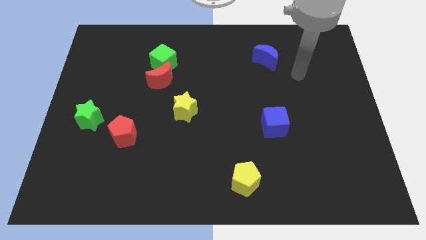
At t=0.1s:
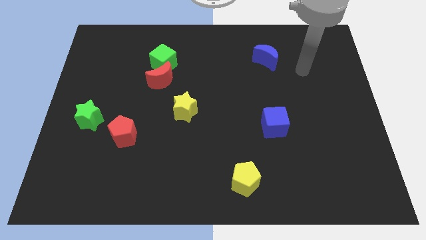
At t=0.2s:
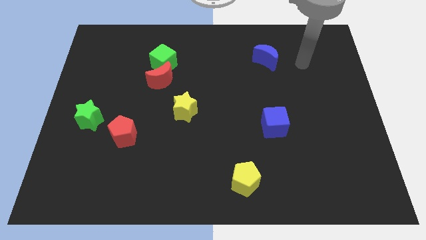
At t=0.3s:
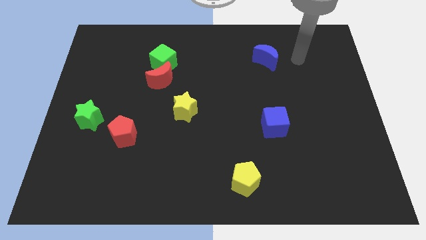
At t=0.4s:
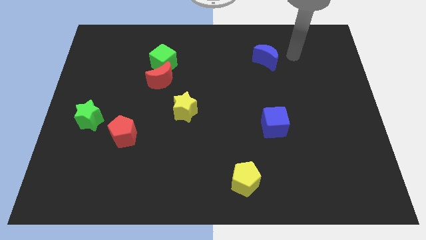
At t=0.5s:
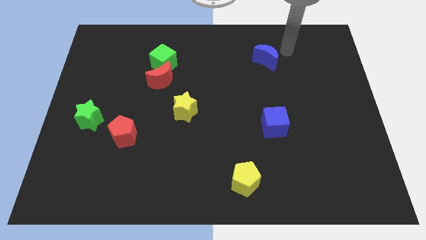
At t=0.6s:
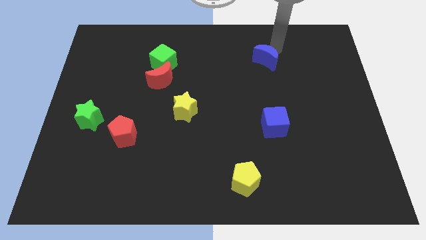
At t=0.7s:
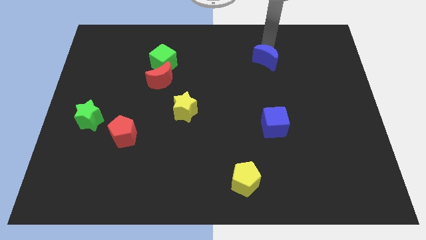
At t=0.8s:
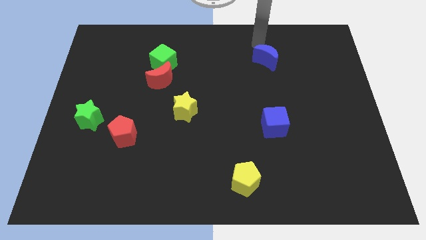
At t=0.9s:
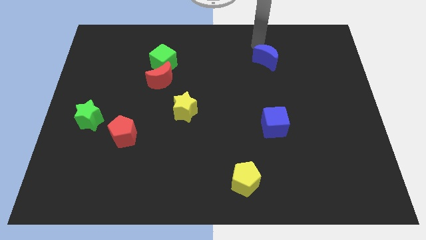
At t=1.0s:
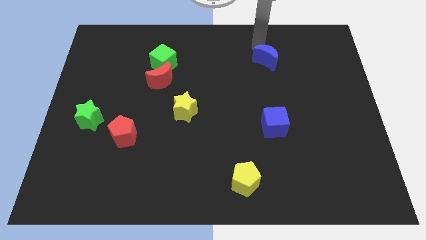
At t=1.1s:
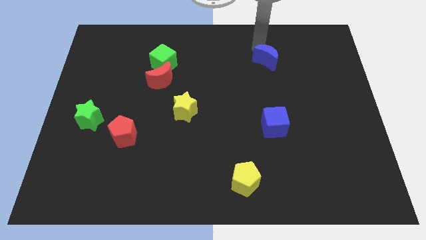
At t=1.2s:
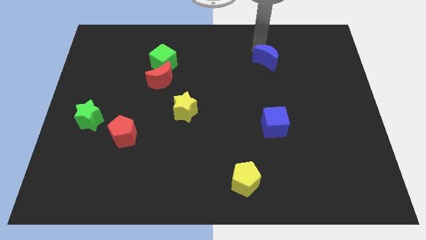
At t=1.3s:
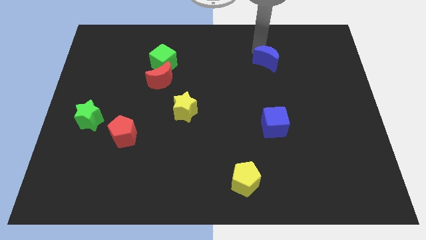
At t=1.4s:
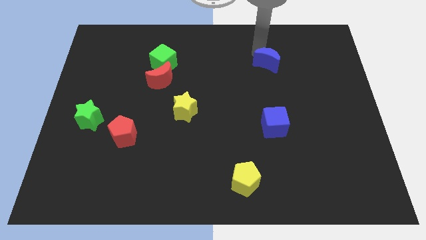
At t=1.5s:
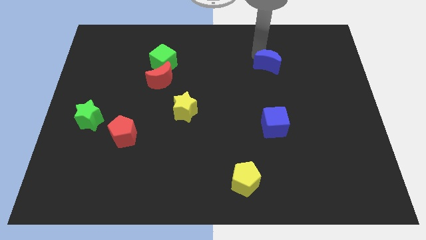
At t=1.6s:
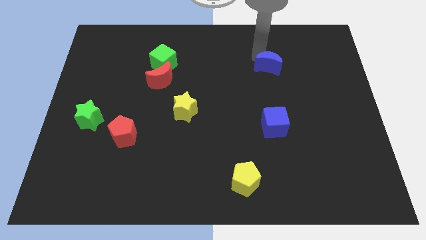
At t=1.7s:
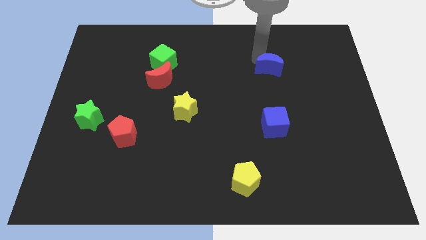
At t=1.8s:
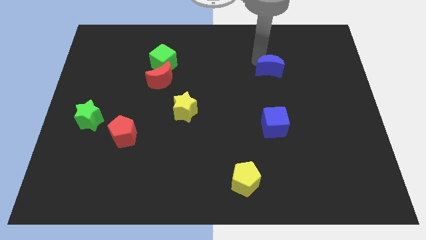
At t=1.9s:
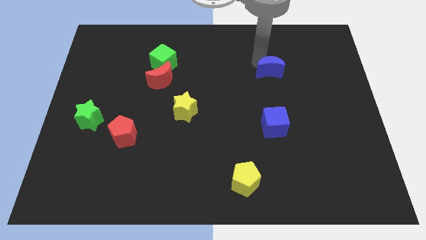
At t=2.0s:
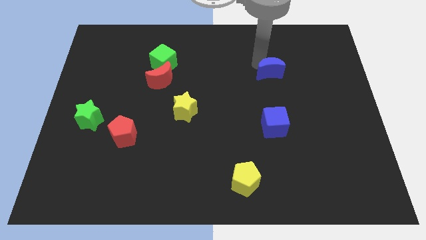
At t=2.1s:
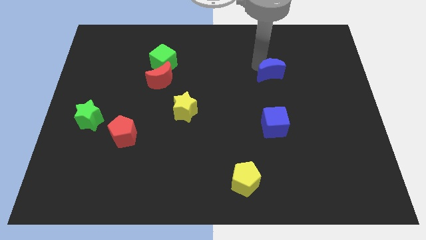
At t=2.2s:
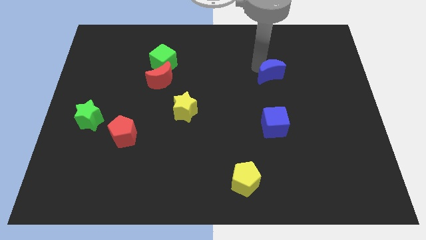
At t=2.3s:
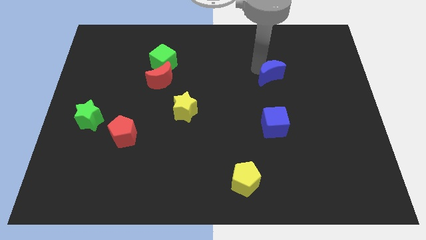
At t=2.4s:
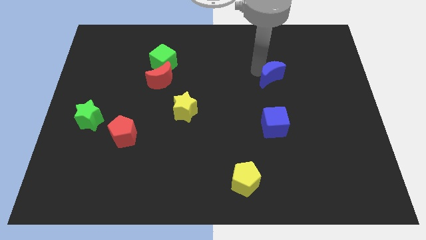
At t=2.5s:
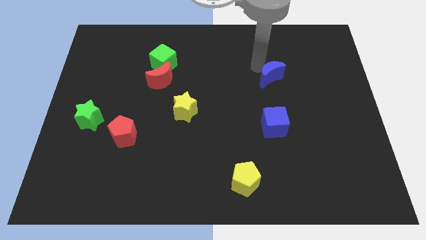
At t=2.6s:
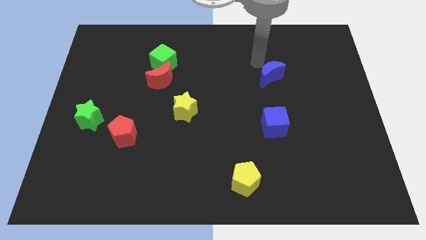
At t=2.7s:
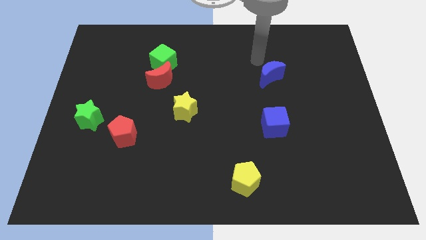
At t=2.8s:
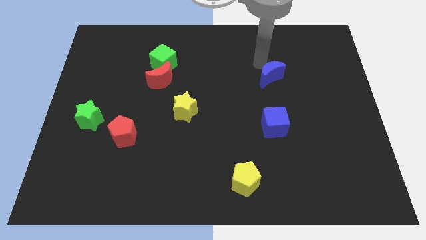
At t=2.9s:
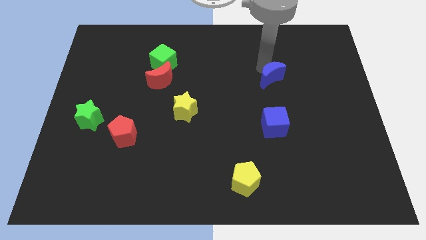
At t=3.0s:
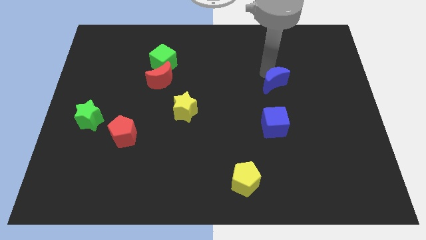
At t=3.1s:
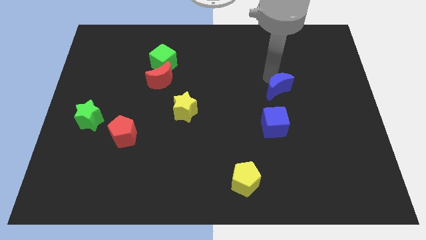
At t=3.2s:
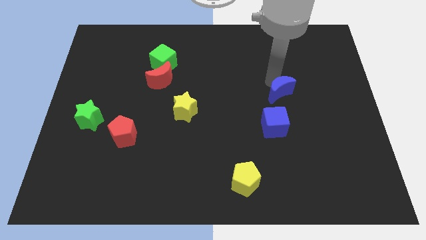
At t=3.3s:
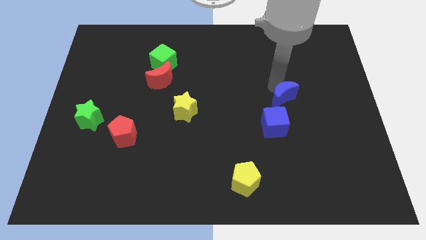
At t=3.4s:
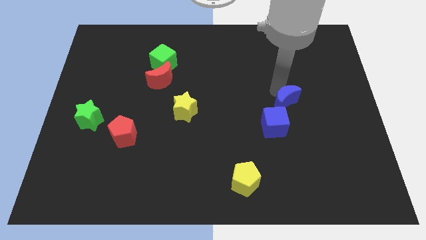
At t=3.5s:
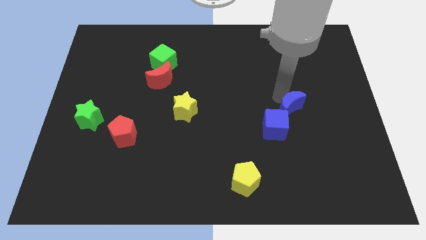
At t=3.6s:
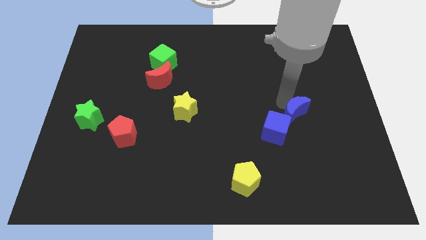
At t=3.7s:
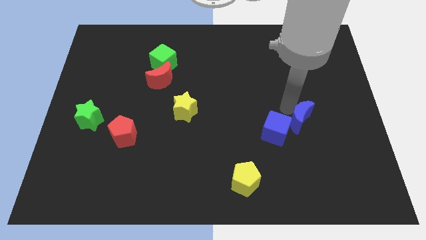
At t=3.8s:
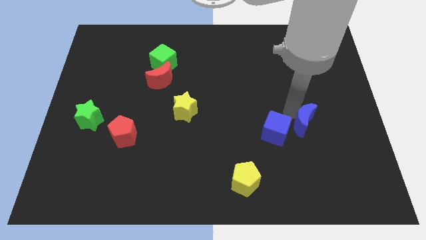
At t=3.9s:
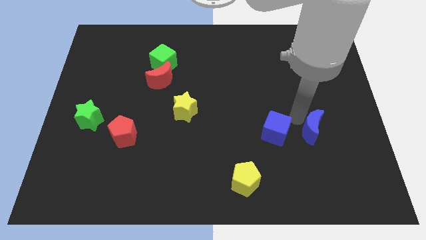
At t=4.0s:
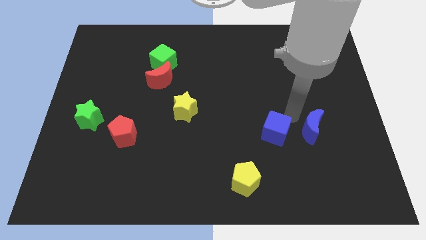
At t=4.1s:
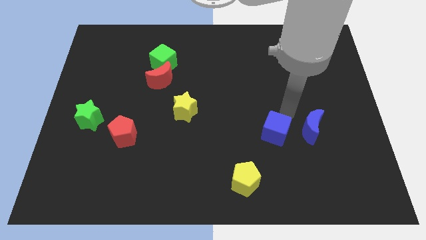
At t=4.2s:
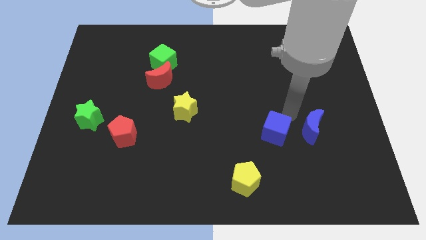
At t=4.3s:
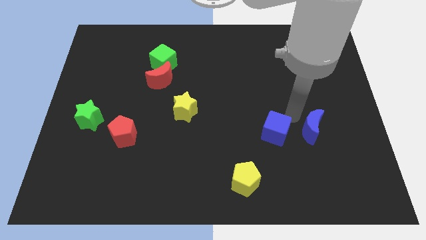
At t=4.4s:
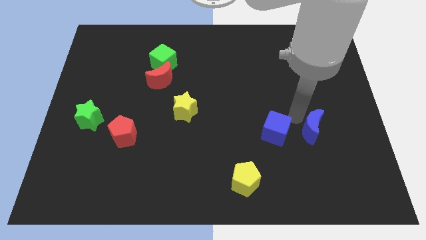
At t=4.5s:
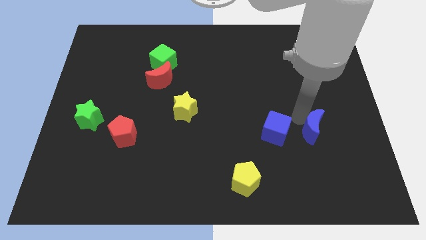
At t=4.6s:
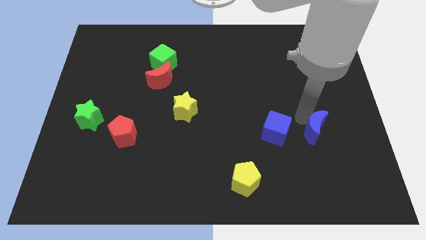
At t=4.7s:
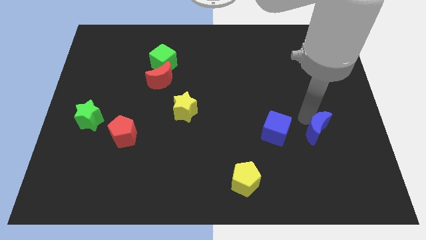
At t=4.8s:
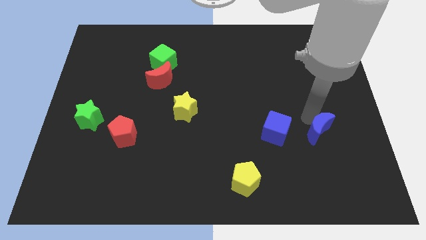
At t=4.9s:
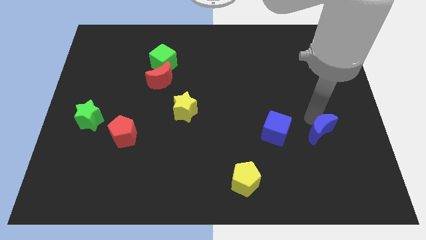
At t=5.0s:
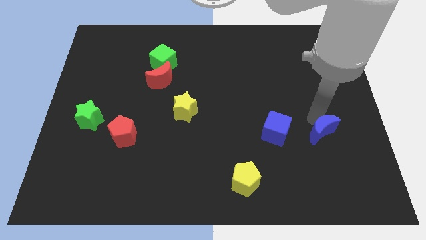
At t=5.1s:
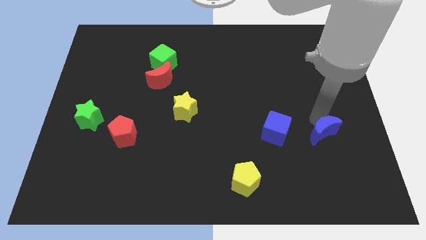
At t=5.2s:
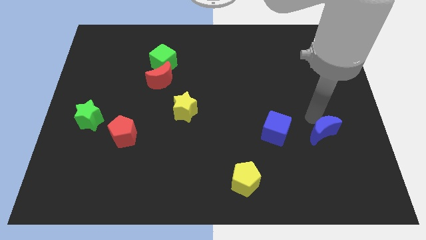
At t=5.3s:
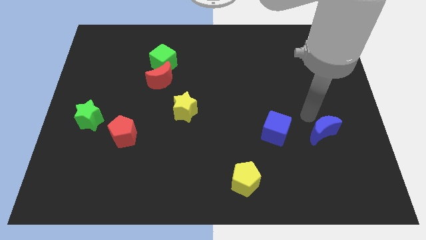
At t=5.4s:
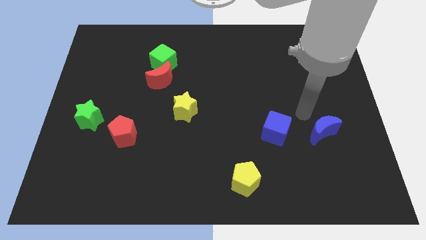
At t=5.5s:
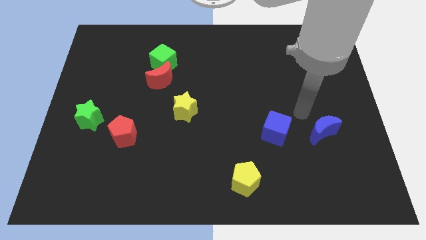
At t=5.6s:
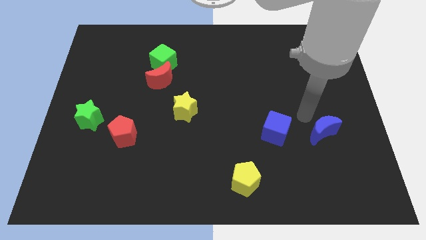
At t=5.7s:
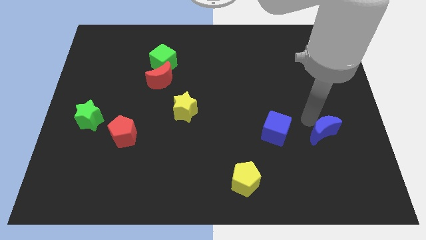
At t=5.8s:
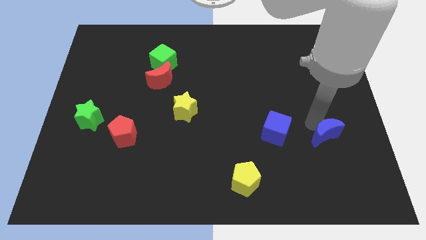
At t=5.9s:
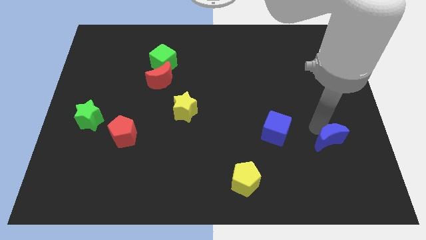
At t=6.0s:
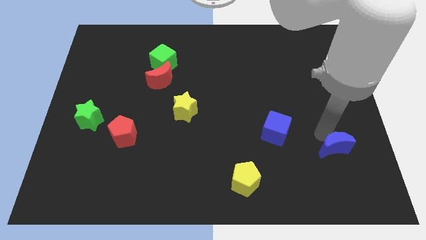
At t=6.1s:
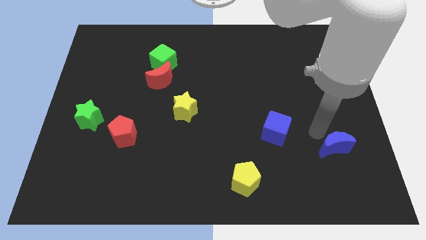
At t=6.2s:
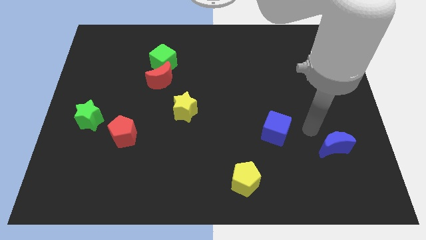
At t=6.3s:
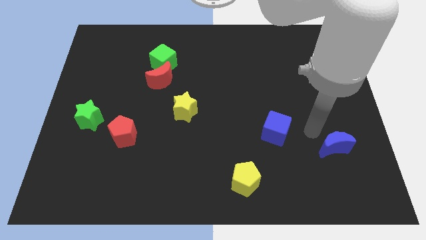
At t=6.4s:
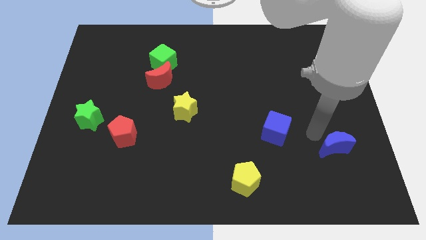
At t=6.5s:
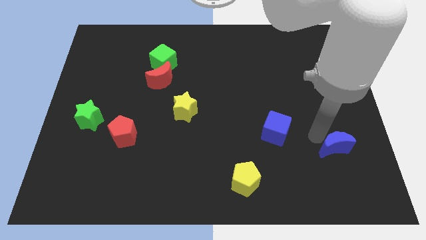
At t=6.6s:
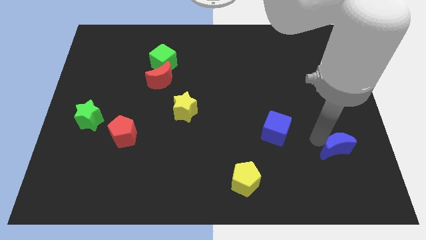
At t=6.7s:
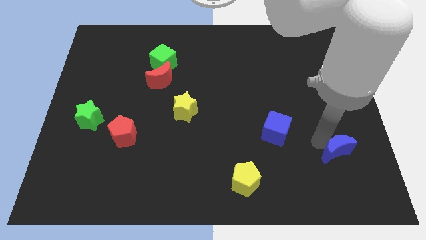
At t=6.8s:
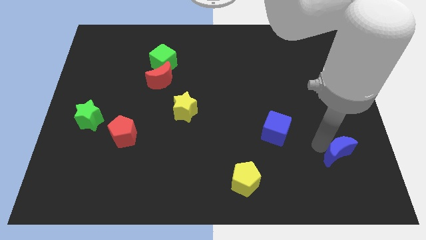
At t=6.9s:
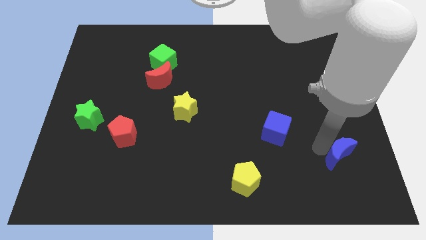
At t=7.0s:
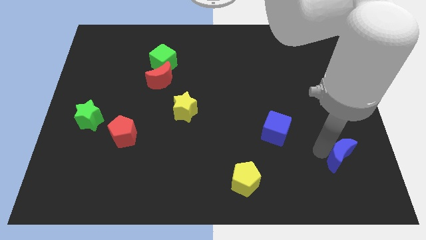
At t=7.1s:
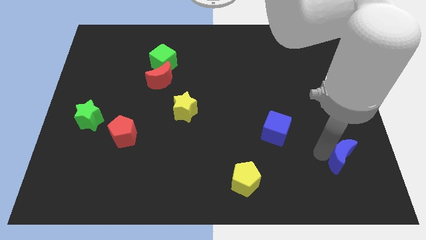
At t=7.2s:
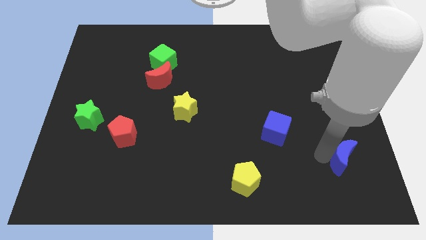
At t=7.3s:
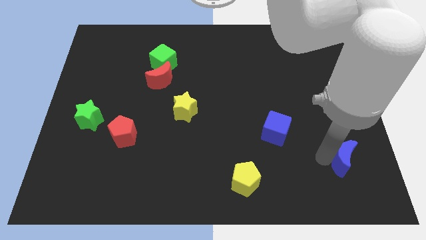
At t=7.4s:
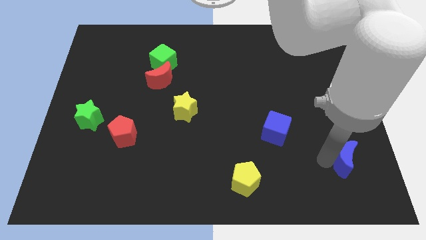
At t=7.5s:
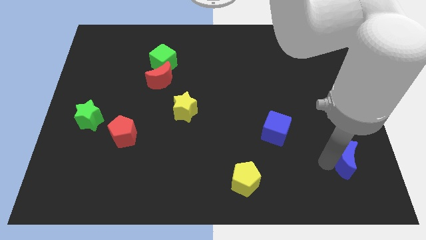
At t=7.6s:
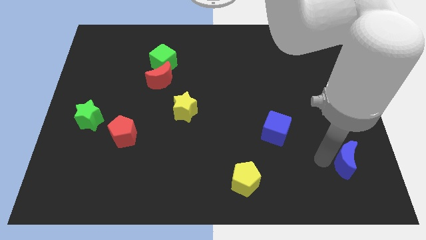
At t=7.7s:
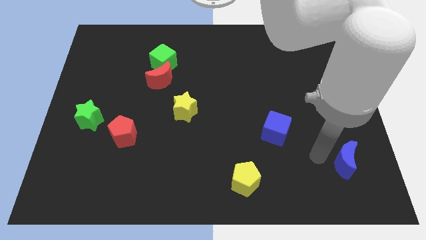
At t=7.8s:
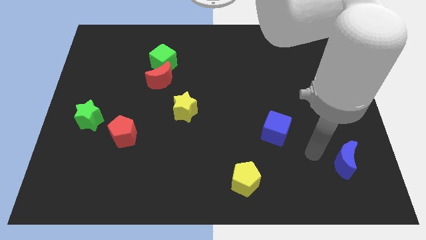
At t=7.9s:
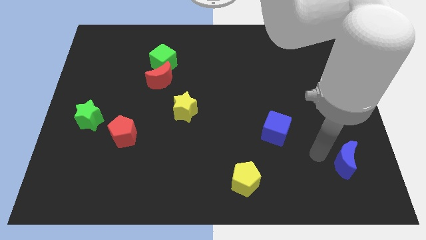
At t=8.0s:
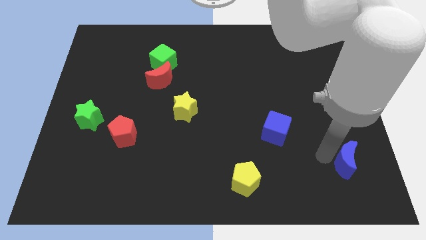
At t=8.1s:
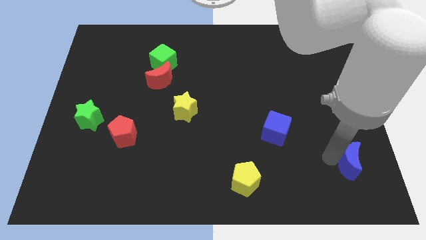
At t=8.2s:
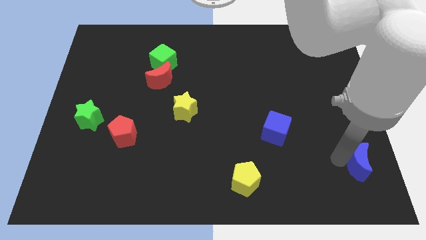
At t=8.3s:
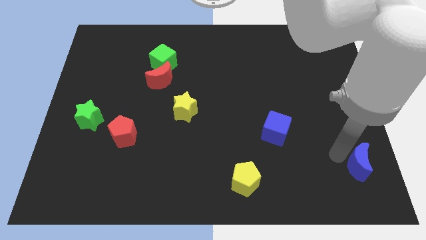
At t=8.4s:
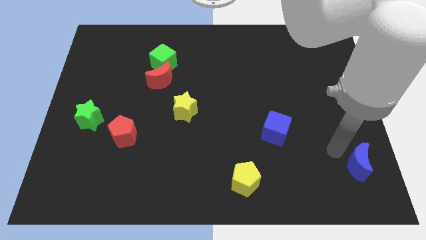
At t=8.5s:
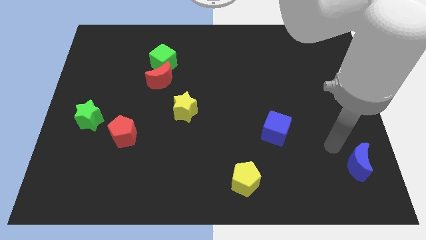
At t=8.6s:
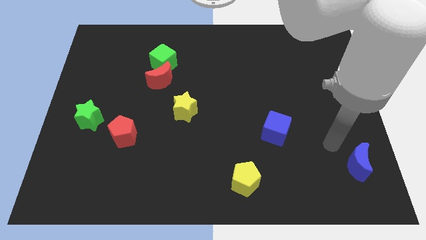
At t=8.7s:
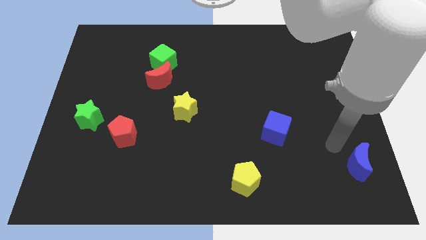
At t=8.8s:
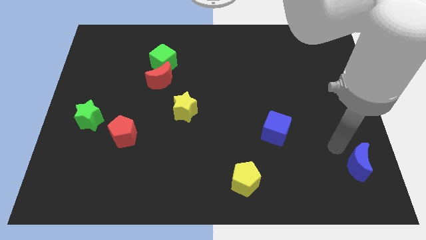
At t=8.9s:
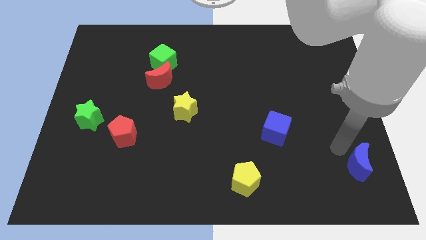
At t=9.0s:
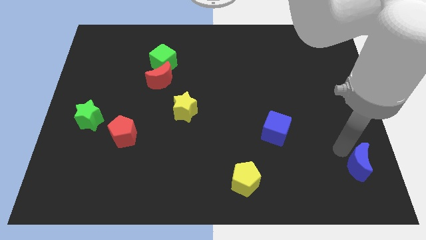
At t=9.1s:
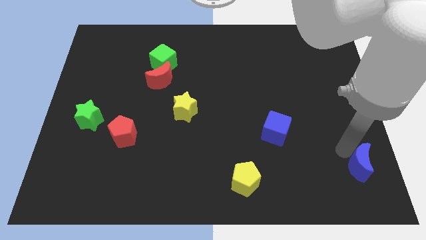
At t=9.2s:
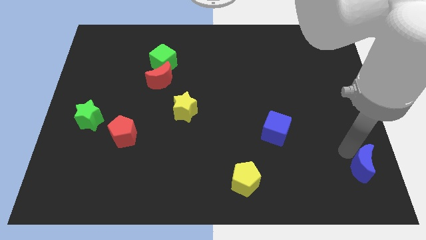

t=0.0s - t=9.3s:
push the blue moon to the bottom right corner
